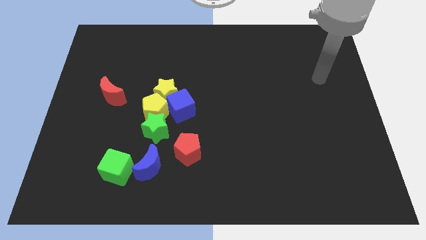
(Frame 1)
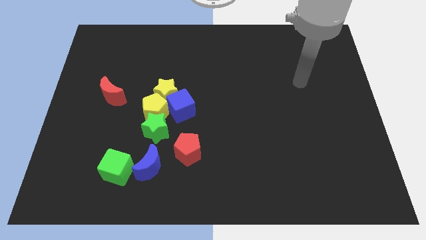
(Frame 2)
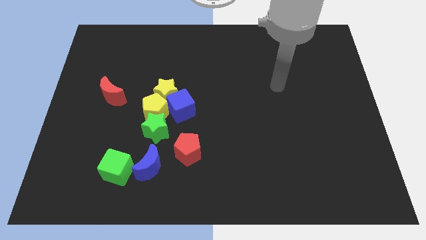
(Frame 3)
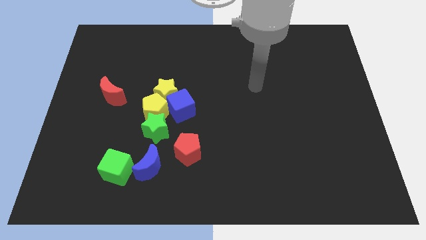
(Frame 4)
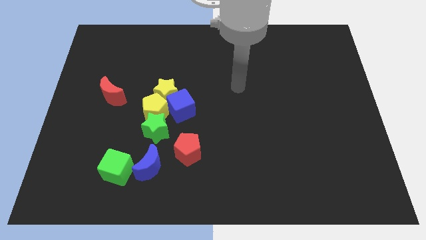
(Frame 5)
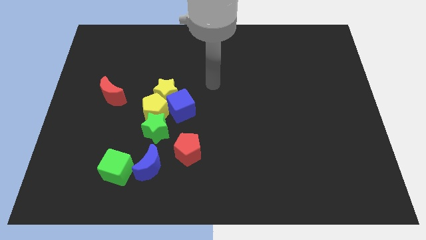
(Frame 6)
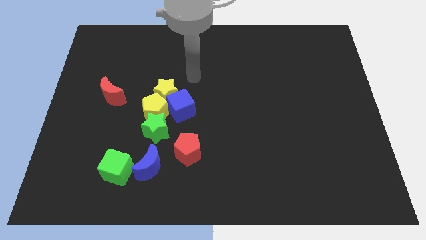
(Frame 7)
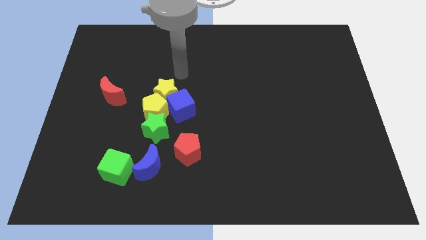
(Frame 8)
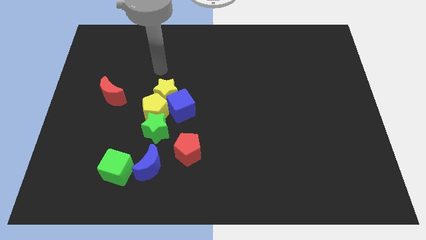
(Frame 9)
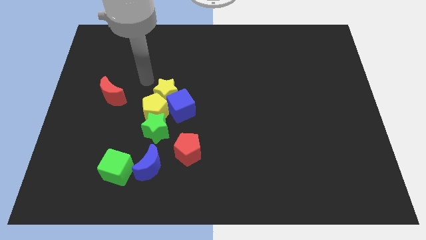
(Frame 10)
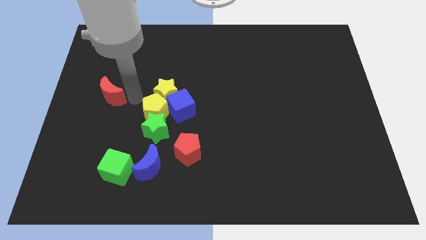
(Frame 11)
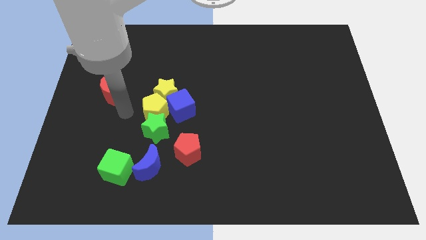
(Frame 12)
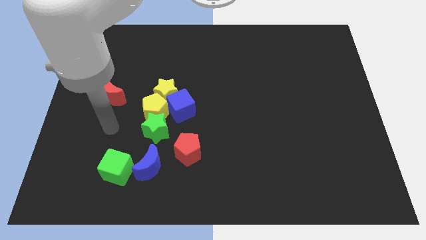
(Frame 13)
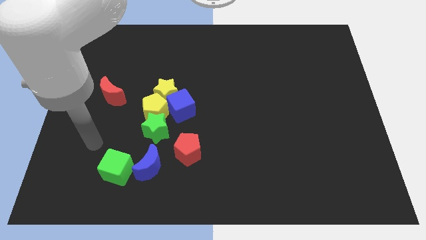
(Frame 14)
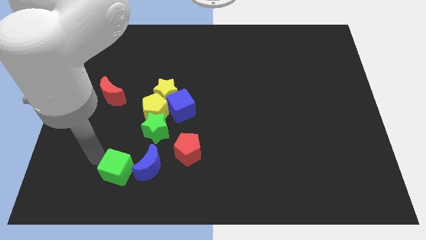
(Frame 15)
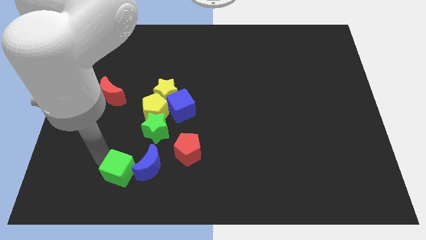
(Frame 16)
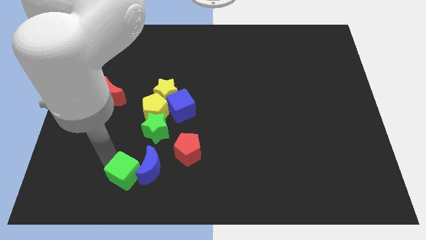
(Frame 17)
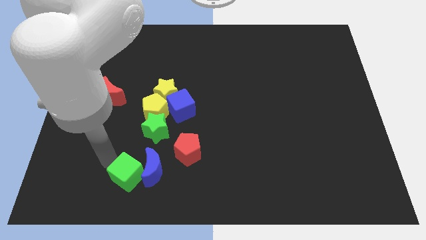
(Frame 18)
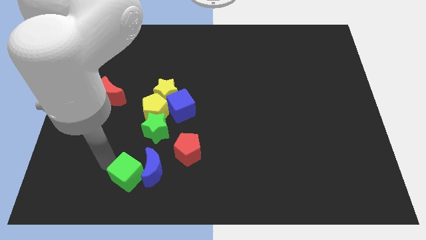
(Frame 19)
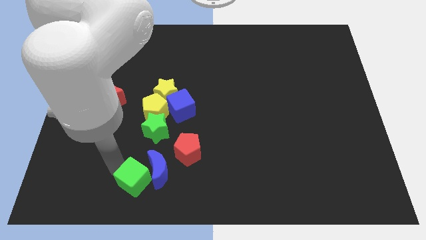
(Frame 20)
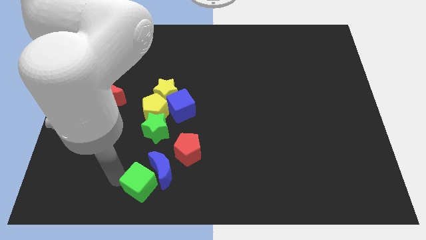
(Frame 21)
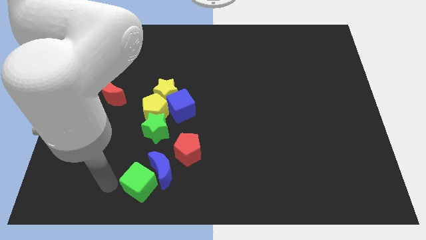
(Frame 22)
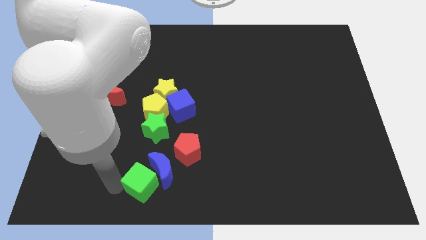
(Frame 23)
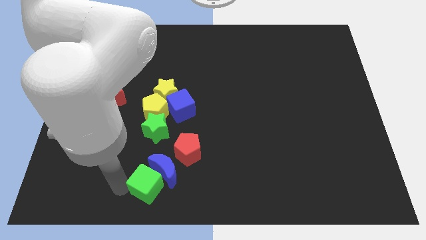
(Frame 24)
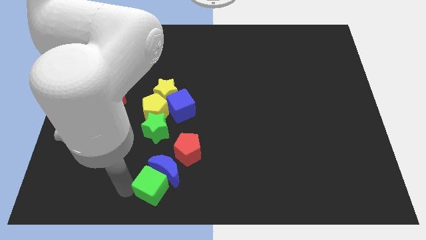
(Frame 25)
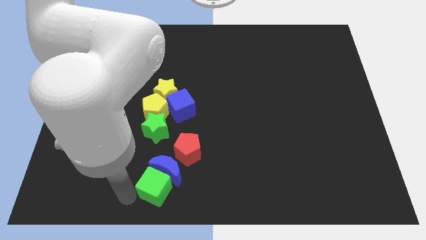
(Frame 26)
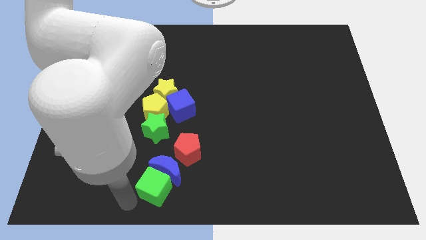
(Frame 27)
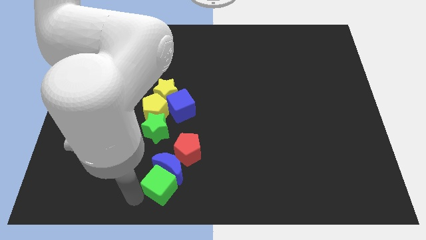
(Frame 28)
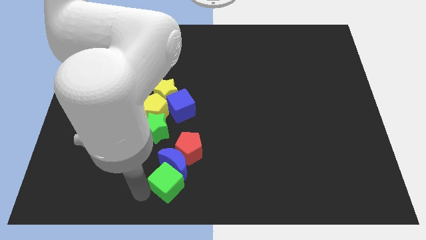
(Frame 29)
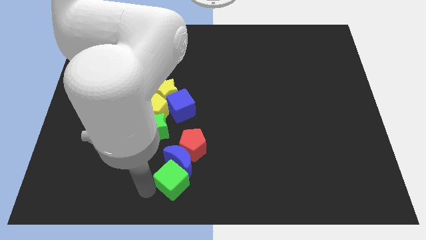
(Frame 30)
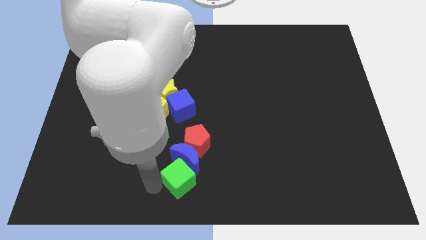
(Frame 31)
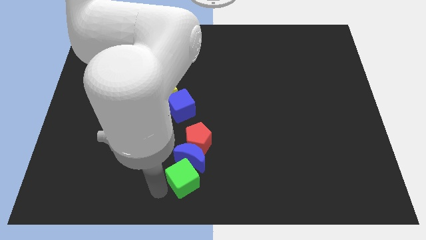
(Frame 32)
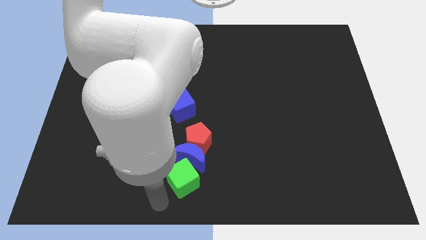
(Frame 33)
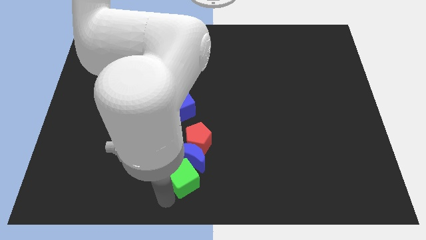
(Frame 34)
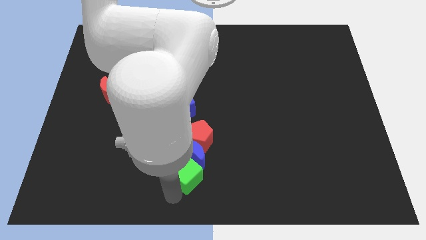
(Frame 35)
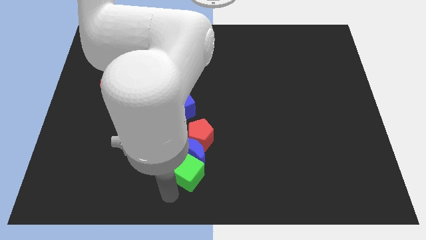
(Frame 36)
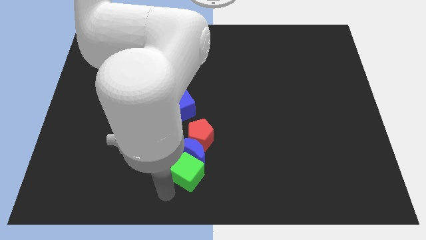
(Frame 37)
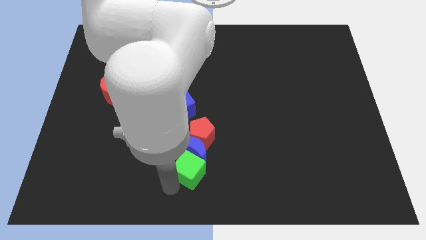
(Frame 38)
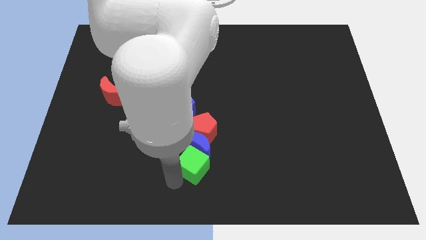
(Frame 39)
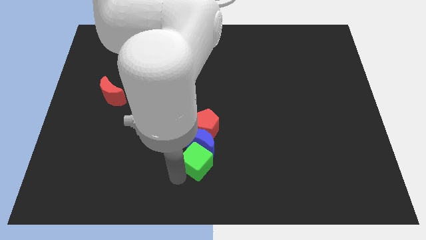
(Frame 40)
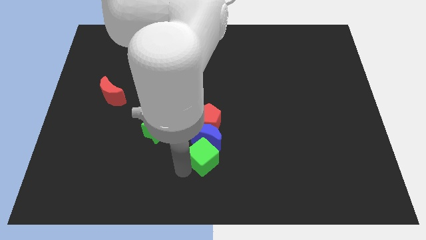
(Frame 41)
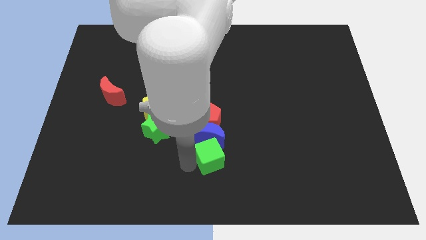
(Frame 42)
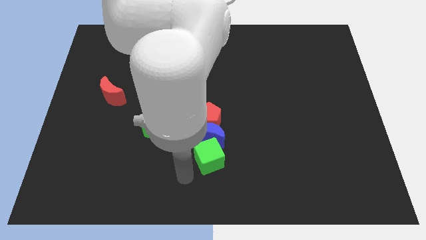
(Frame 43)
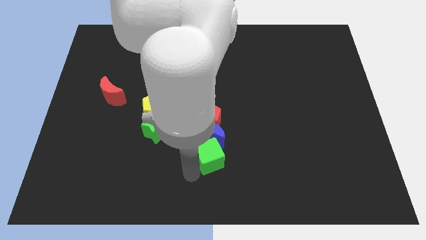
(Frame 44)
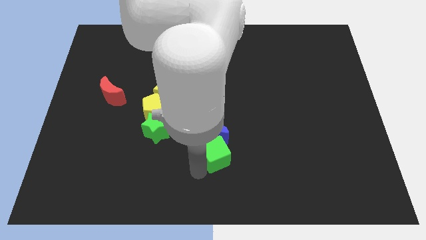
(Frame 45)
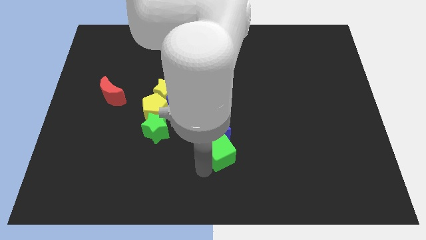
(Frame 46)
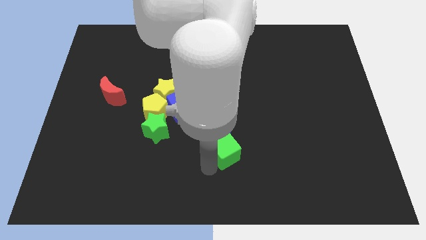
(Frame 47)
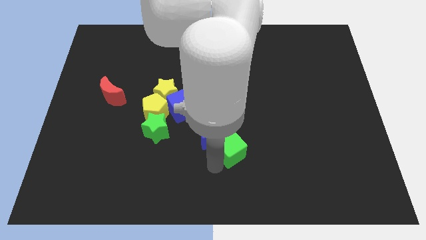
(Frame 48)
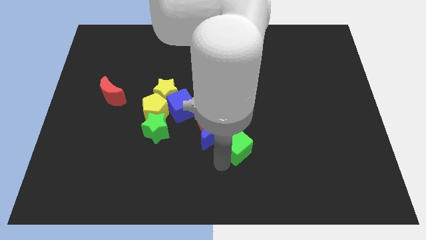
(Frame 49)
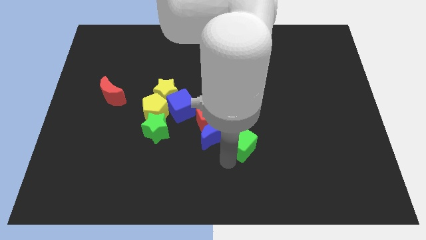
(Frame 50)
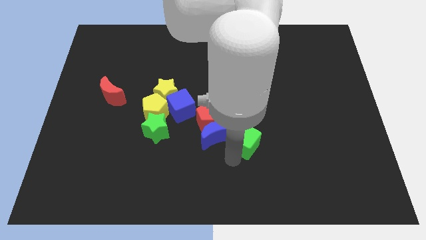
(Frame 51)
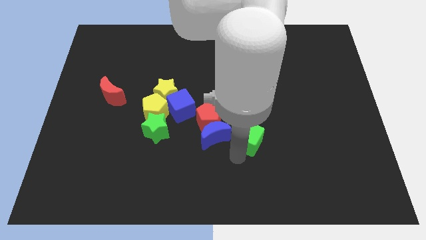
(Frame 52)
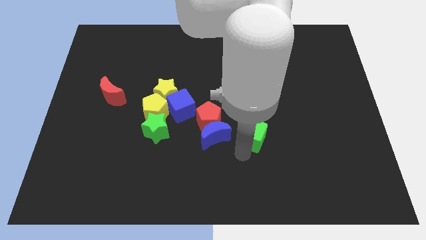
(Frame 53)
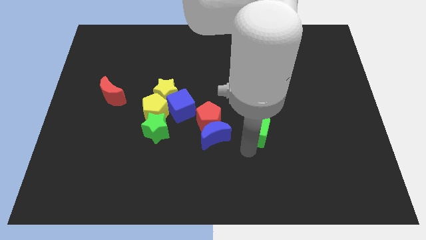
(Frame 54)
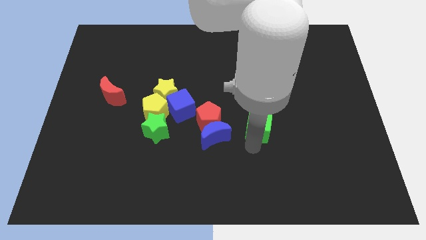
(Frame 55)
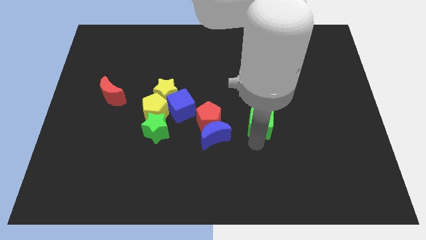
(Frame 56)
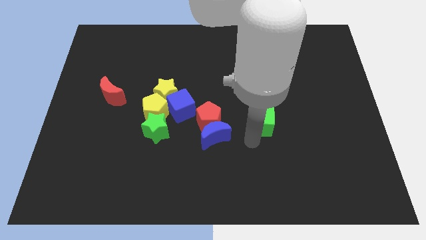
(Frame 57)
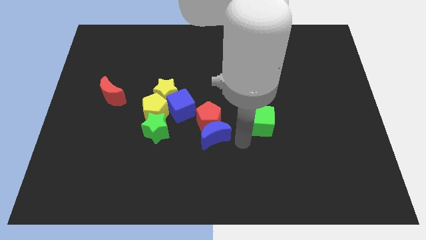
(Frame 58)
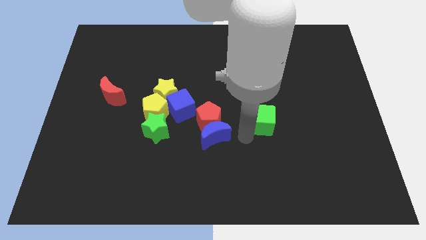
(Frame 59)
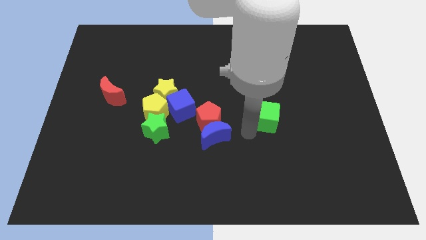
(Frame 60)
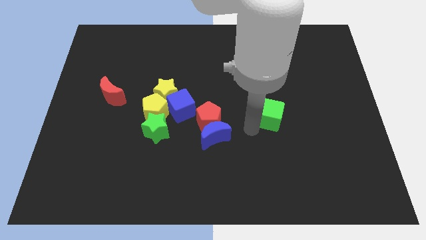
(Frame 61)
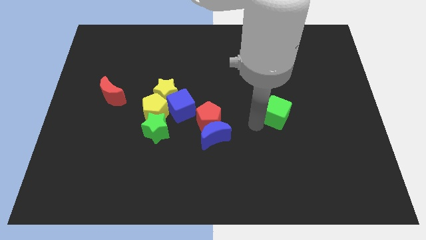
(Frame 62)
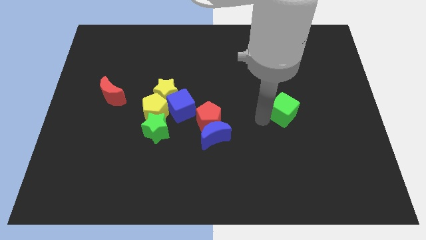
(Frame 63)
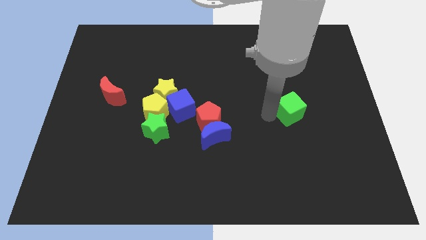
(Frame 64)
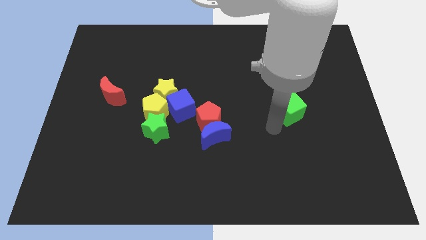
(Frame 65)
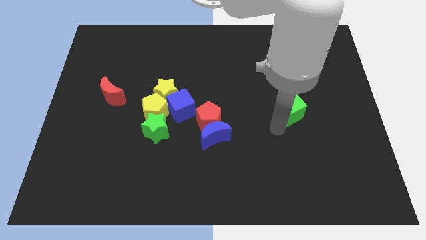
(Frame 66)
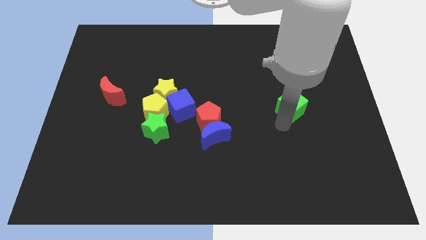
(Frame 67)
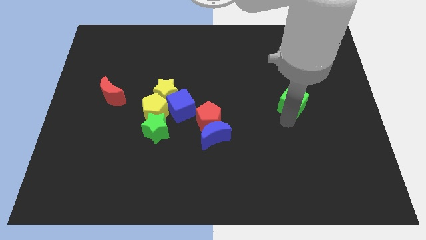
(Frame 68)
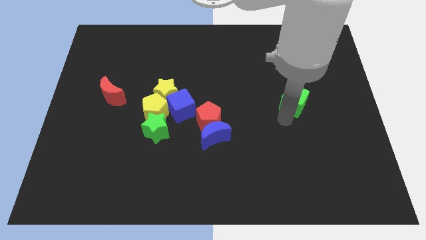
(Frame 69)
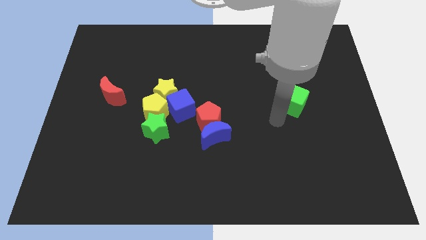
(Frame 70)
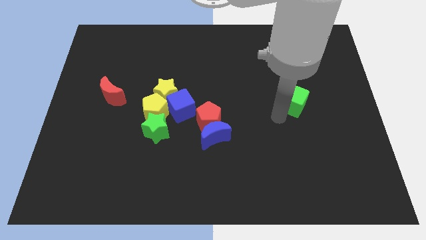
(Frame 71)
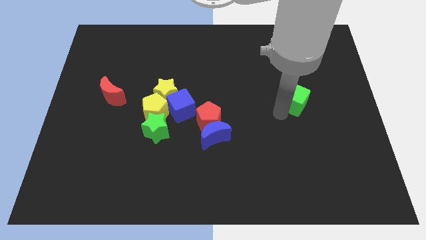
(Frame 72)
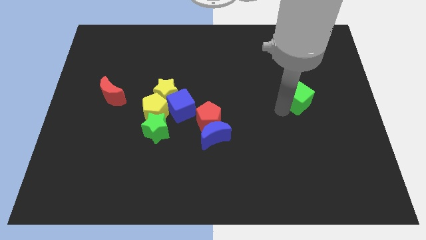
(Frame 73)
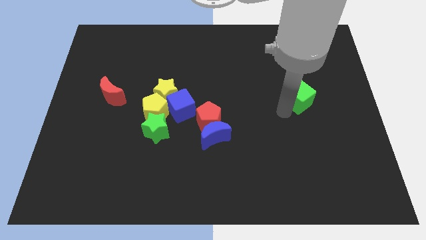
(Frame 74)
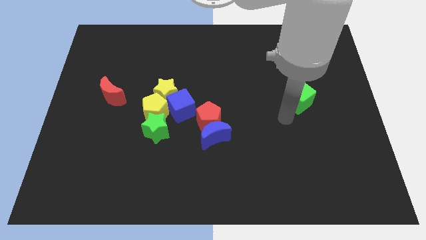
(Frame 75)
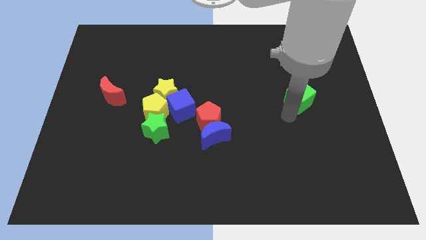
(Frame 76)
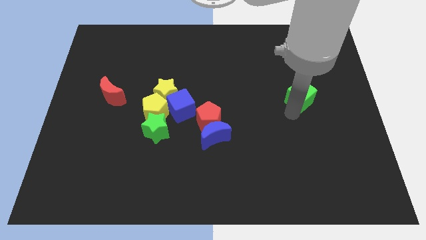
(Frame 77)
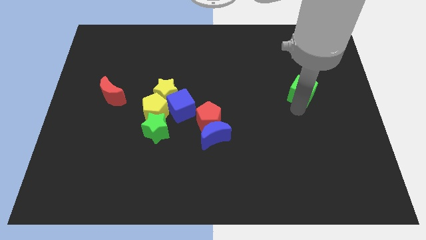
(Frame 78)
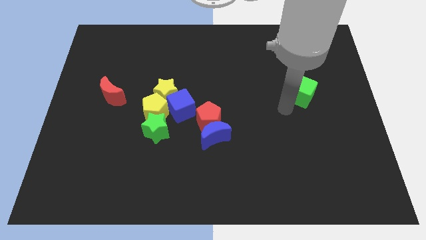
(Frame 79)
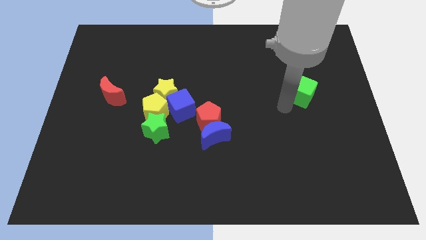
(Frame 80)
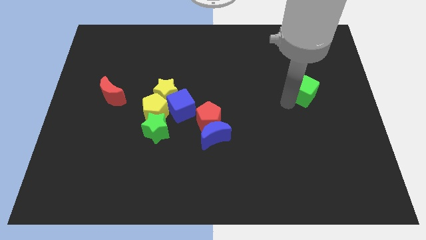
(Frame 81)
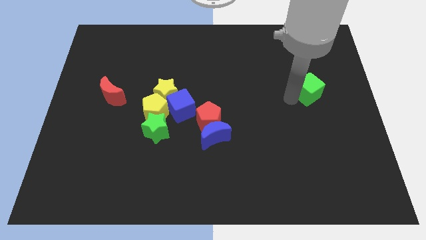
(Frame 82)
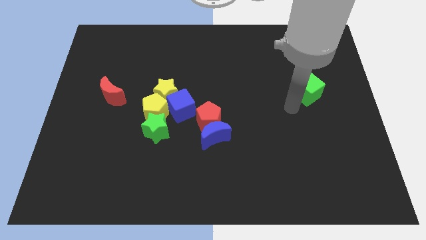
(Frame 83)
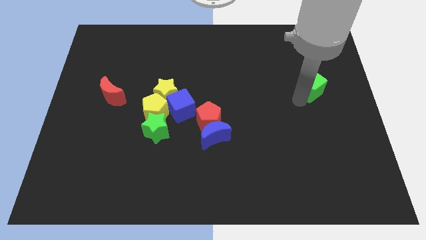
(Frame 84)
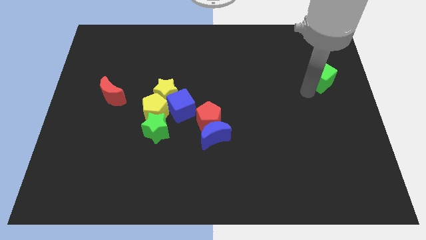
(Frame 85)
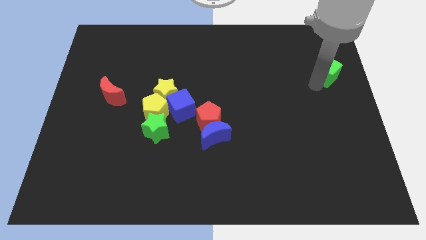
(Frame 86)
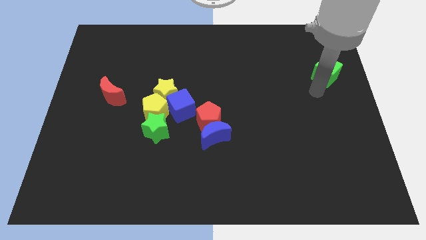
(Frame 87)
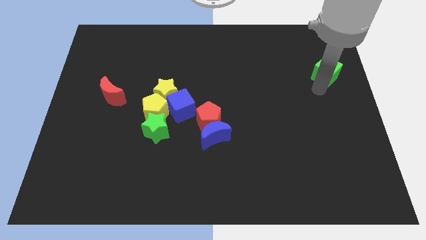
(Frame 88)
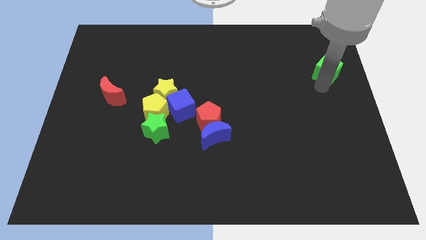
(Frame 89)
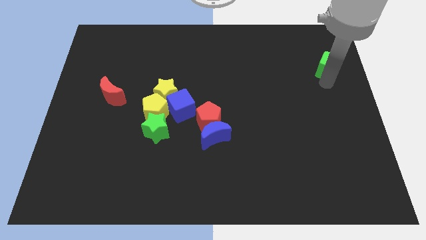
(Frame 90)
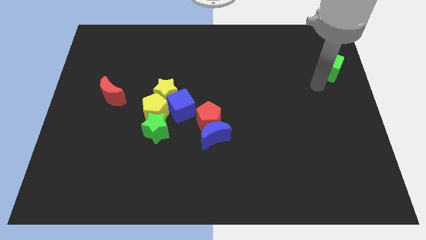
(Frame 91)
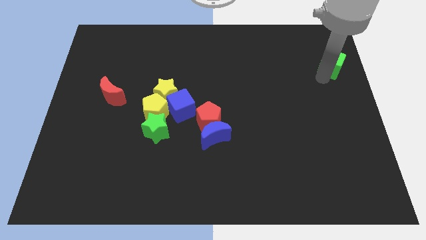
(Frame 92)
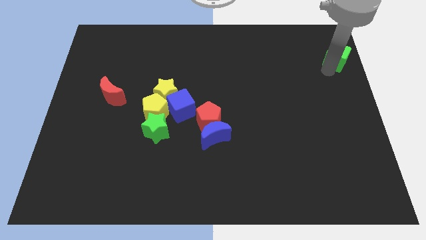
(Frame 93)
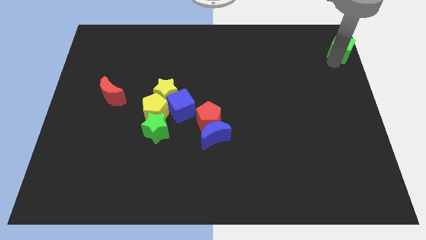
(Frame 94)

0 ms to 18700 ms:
move the green cube to the top right
